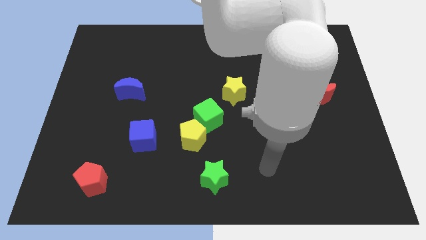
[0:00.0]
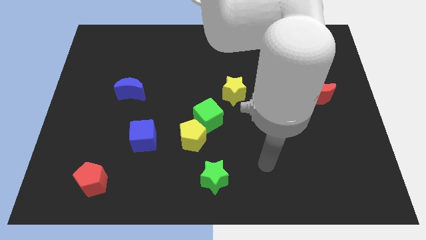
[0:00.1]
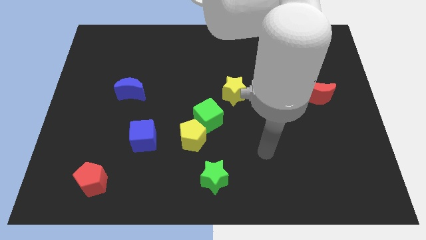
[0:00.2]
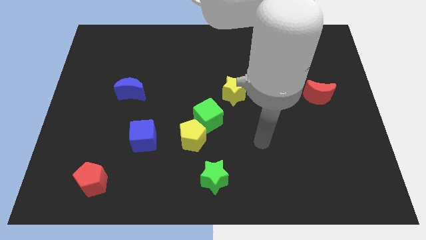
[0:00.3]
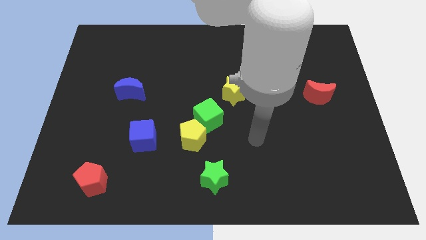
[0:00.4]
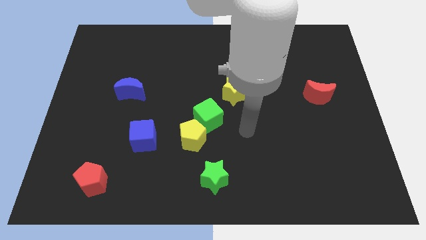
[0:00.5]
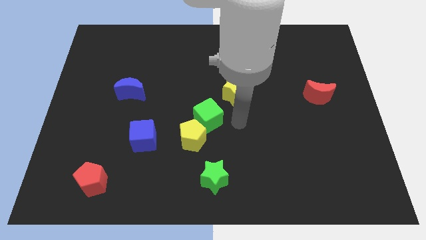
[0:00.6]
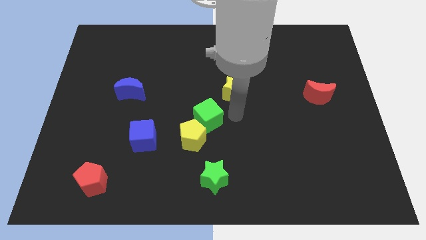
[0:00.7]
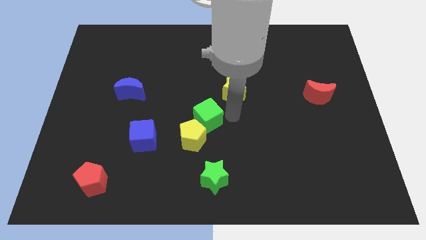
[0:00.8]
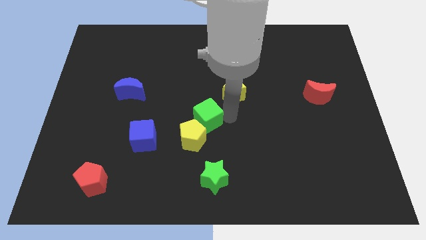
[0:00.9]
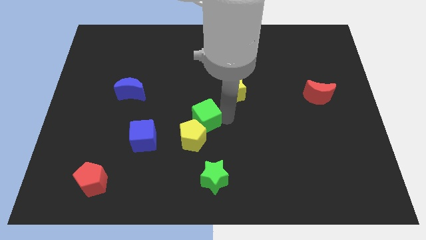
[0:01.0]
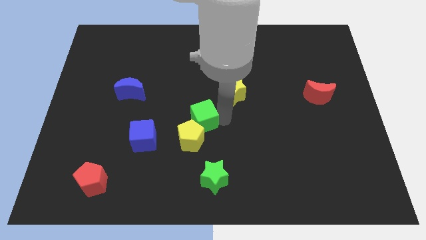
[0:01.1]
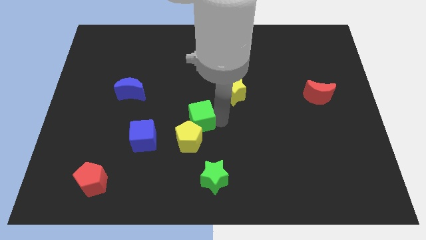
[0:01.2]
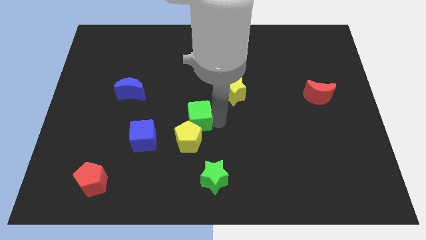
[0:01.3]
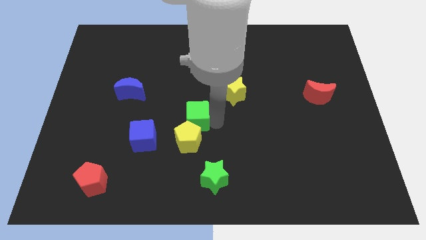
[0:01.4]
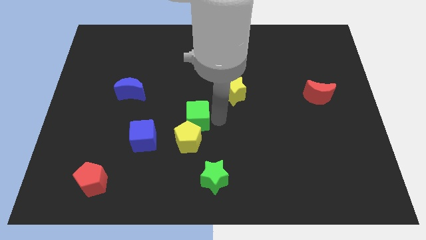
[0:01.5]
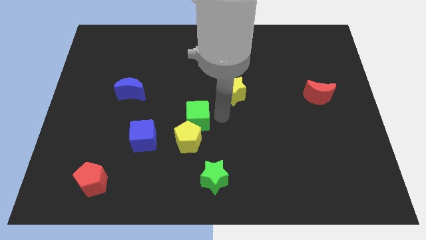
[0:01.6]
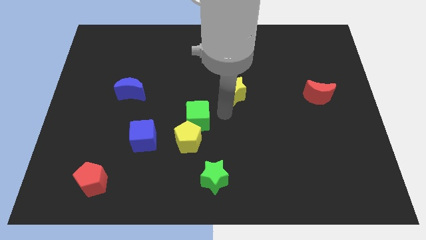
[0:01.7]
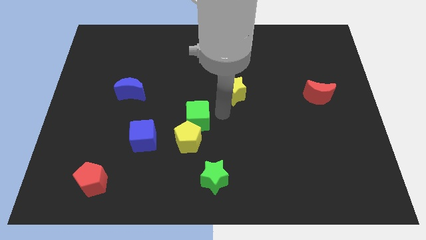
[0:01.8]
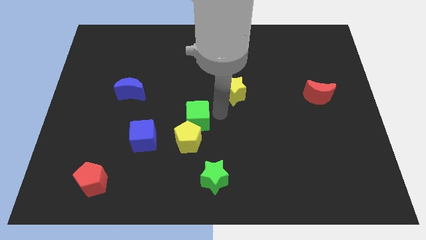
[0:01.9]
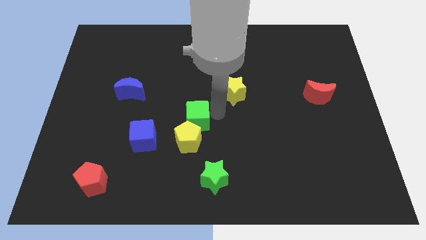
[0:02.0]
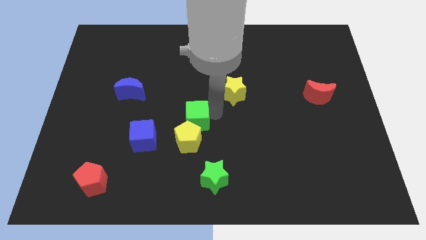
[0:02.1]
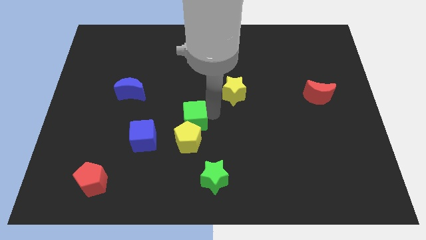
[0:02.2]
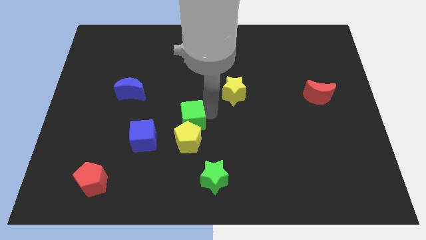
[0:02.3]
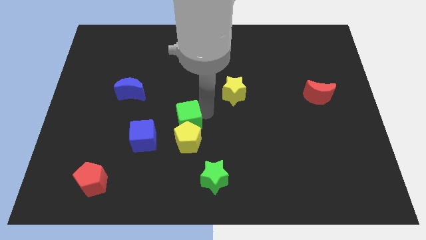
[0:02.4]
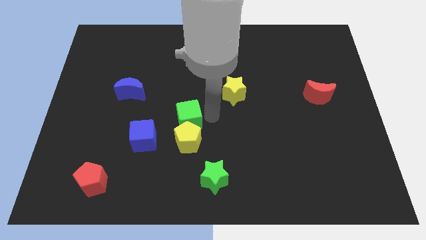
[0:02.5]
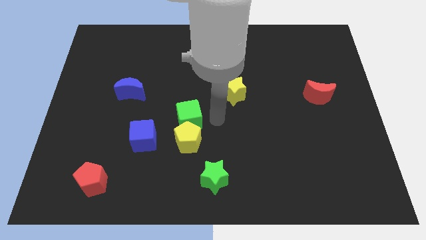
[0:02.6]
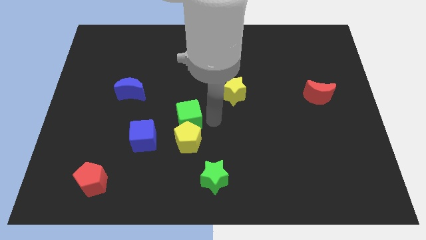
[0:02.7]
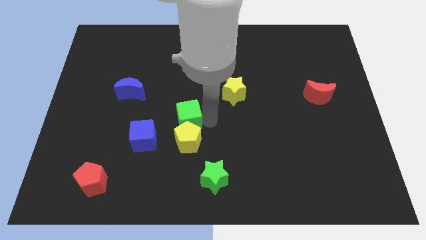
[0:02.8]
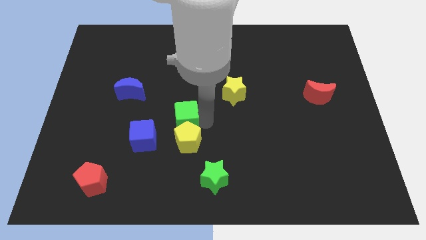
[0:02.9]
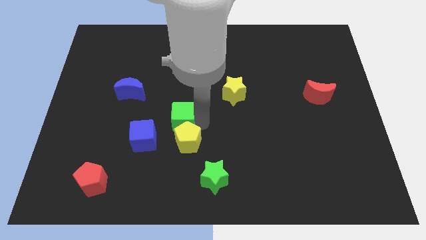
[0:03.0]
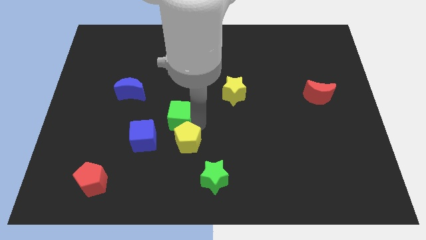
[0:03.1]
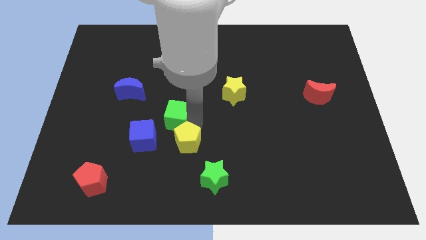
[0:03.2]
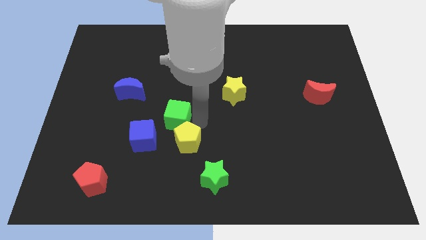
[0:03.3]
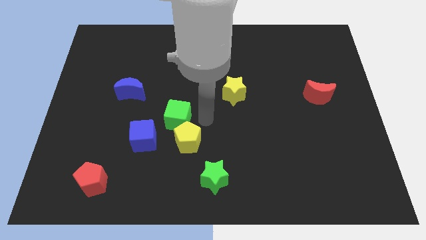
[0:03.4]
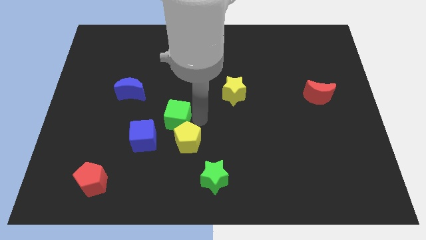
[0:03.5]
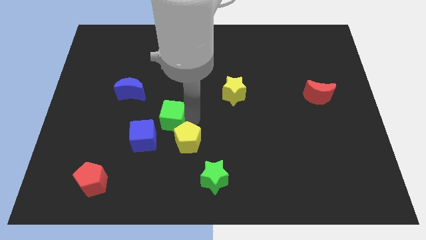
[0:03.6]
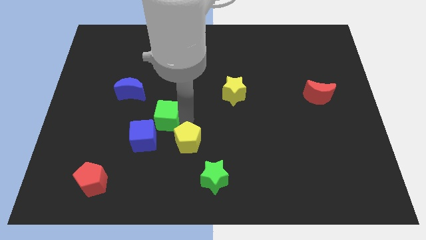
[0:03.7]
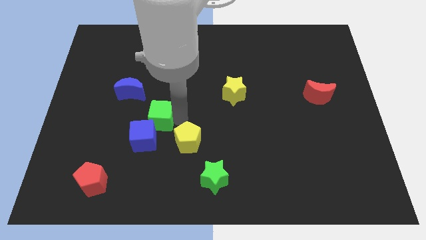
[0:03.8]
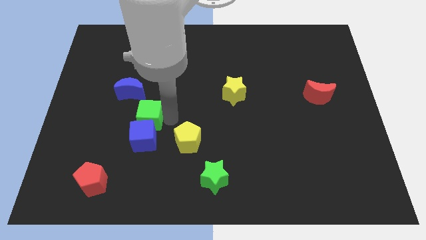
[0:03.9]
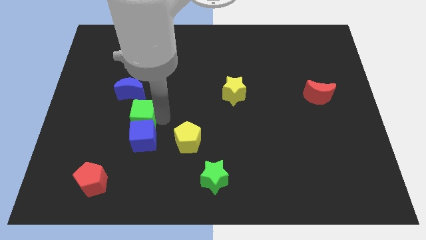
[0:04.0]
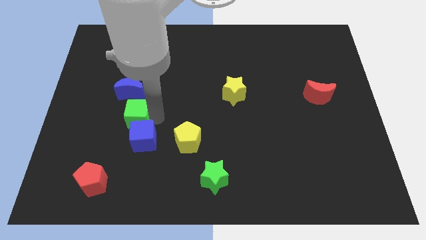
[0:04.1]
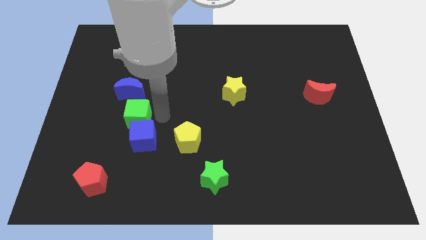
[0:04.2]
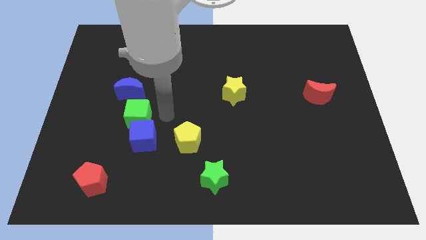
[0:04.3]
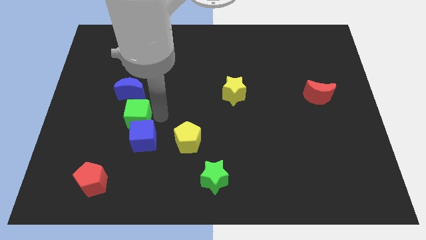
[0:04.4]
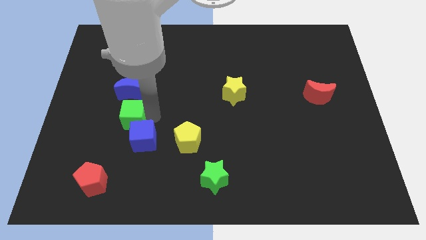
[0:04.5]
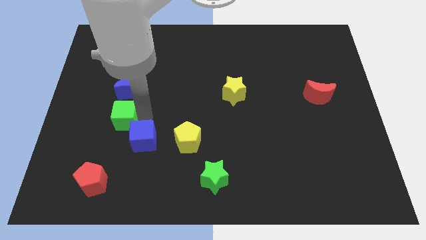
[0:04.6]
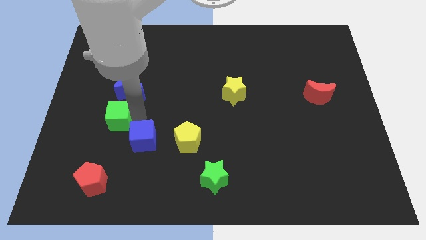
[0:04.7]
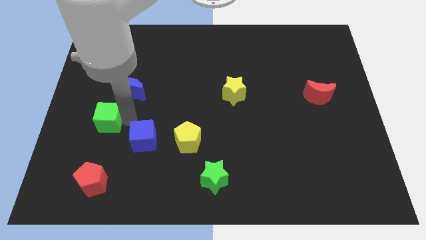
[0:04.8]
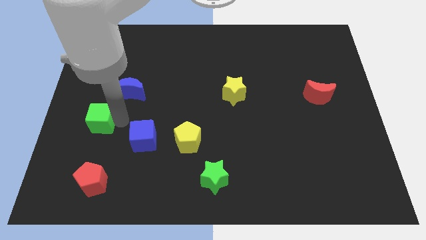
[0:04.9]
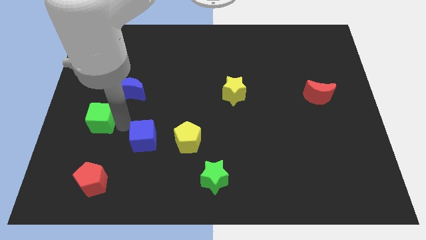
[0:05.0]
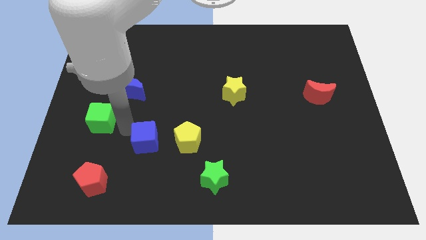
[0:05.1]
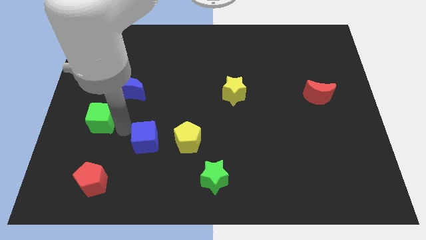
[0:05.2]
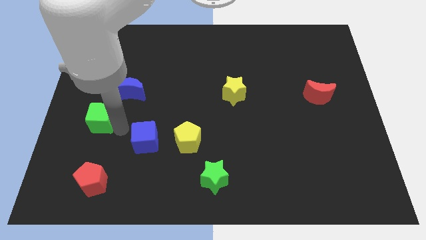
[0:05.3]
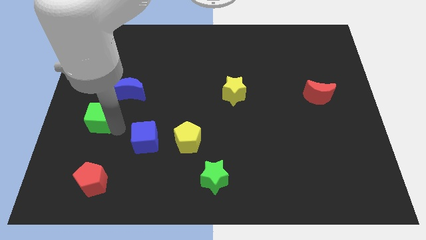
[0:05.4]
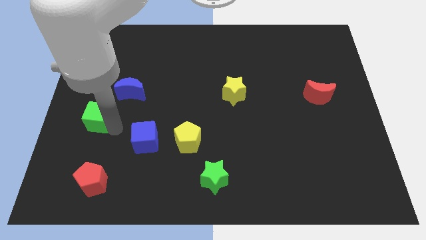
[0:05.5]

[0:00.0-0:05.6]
move the green cube to the left side
